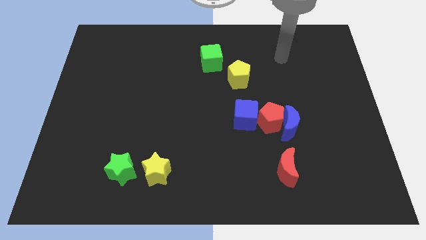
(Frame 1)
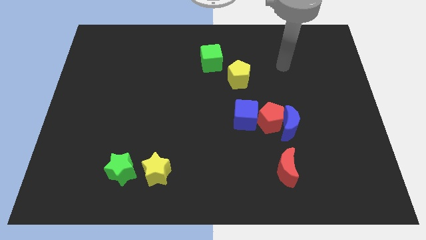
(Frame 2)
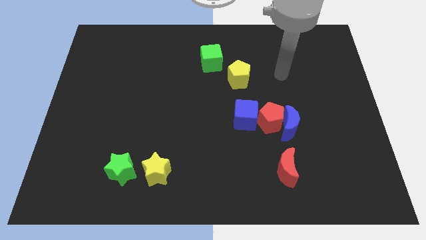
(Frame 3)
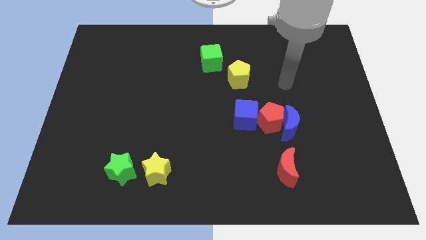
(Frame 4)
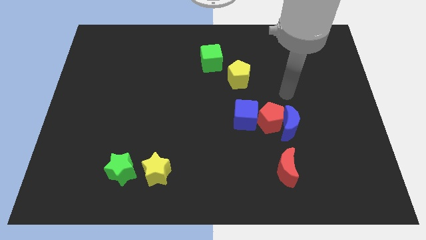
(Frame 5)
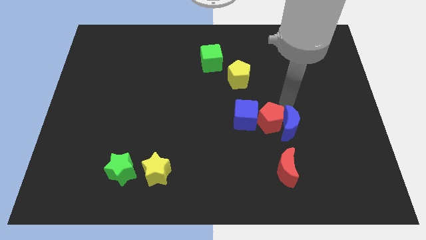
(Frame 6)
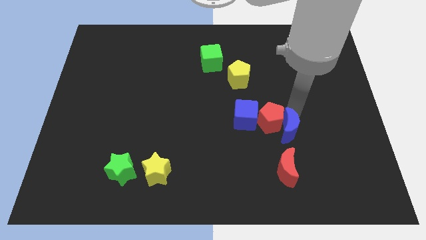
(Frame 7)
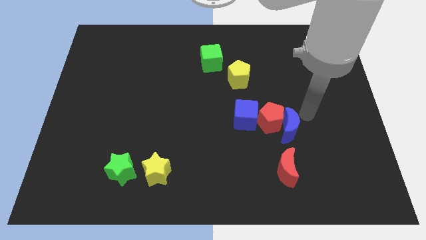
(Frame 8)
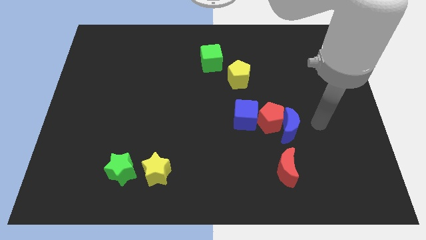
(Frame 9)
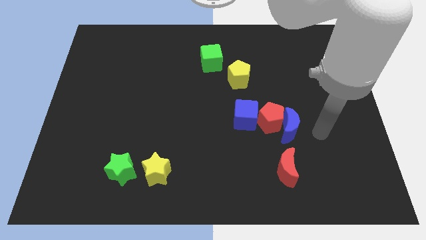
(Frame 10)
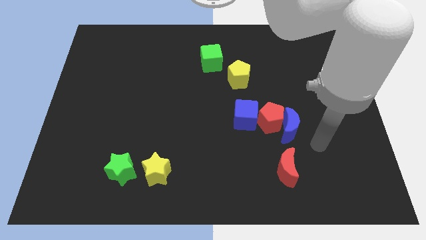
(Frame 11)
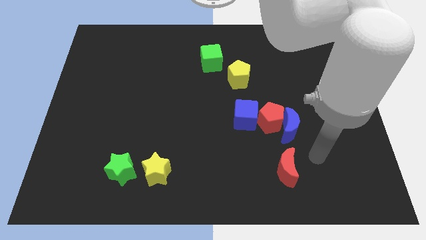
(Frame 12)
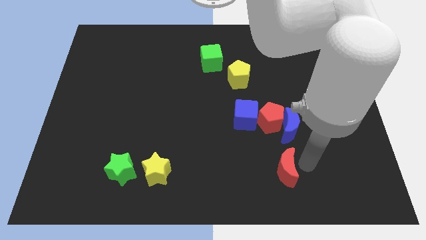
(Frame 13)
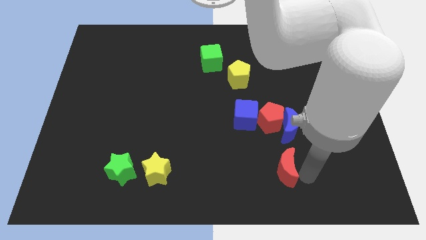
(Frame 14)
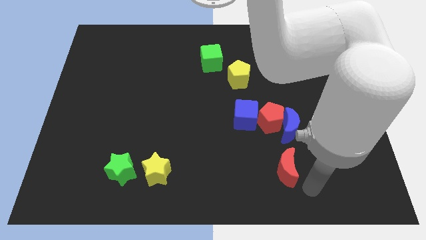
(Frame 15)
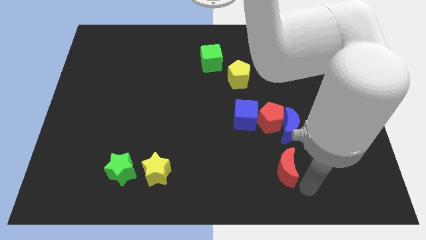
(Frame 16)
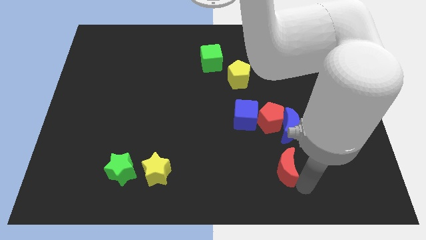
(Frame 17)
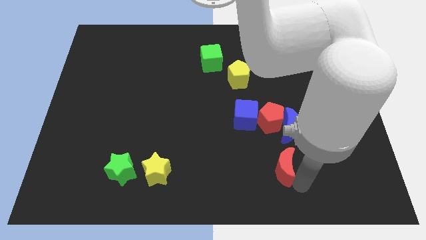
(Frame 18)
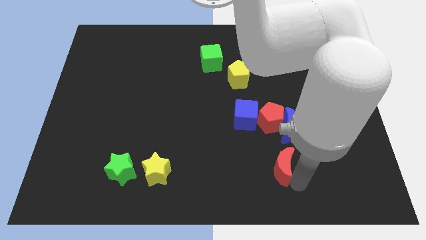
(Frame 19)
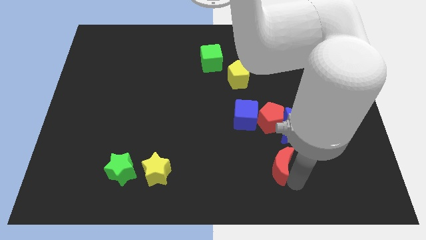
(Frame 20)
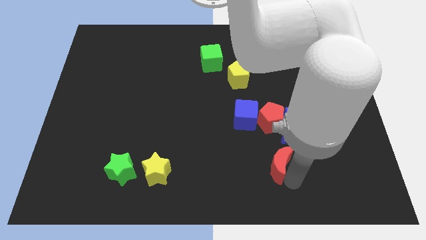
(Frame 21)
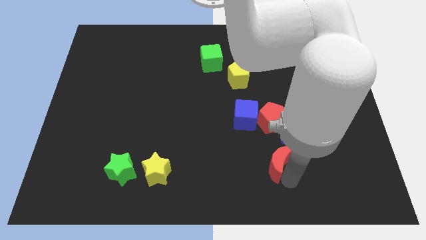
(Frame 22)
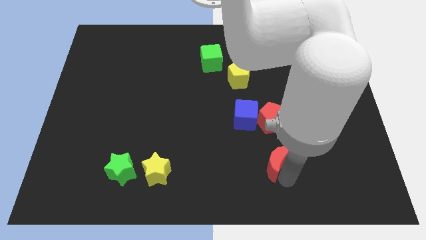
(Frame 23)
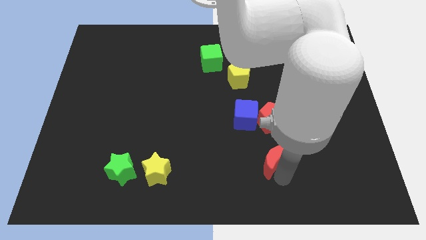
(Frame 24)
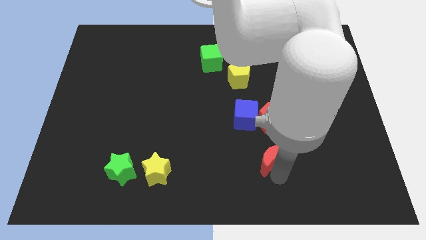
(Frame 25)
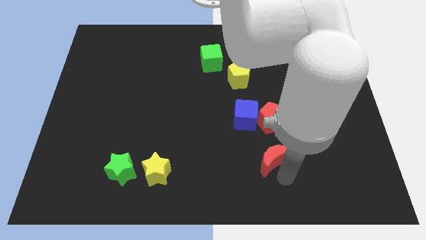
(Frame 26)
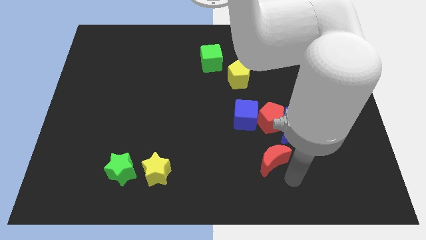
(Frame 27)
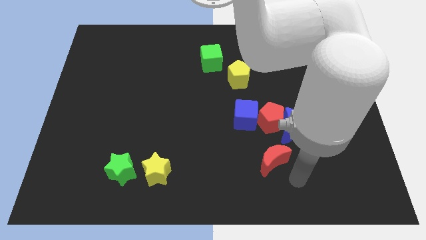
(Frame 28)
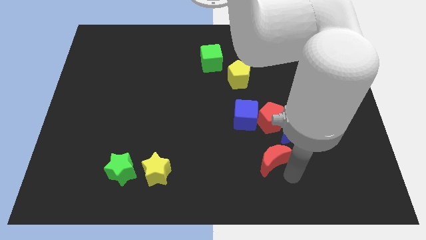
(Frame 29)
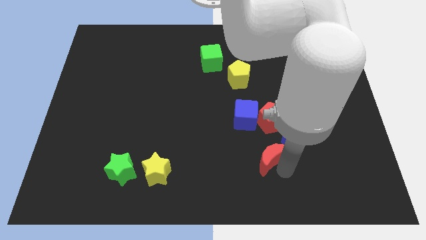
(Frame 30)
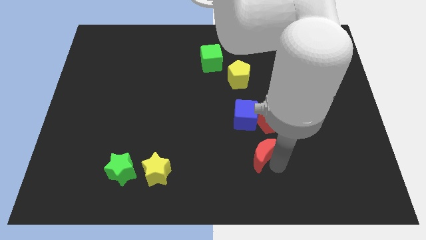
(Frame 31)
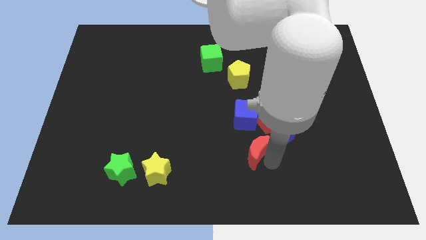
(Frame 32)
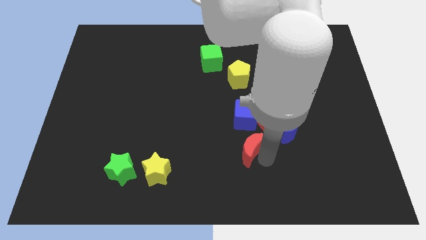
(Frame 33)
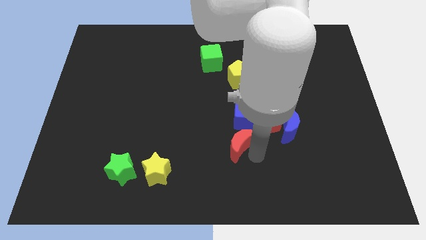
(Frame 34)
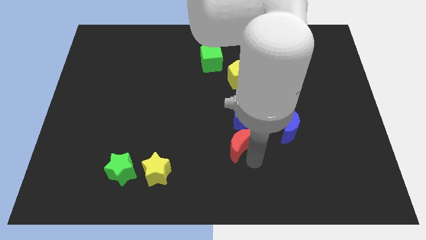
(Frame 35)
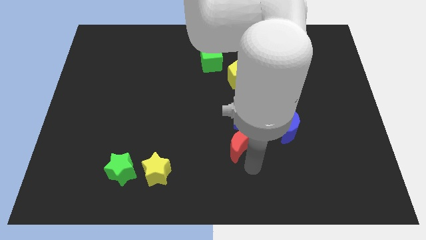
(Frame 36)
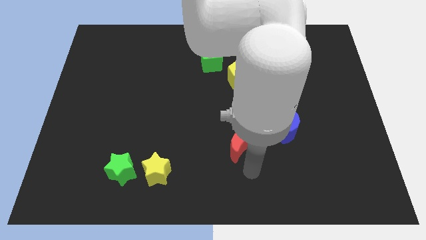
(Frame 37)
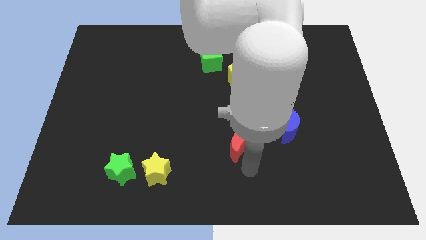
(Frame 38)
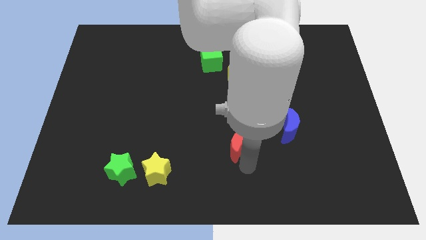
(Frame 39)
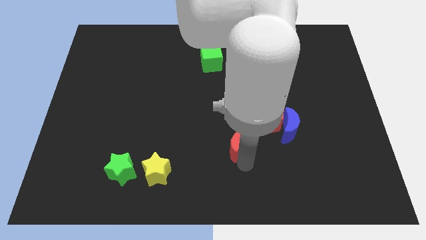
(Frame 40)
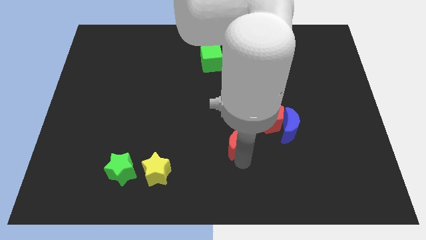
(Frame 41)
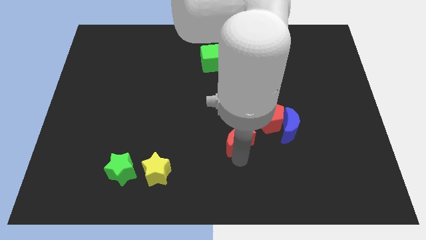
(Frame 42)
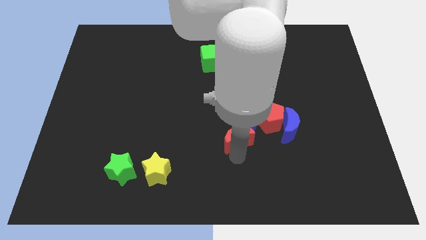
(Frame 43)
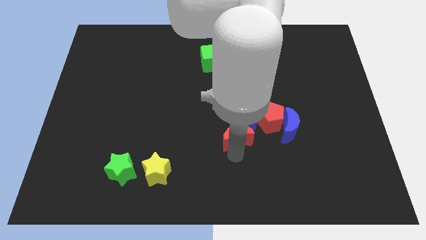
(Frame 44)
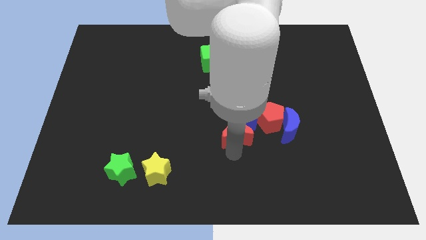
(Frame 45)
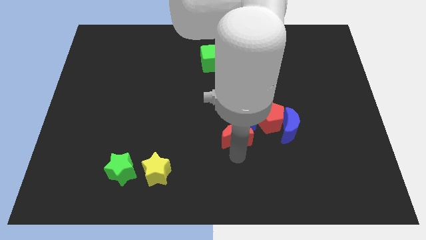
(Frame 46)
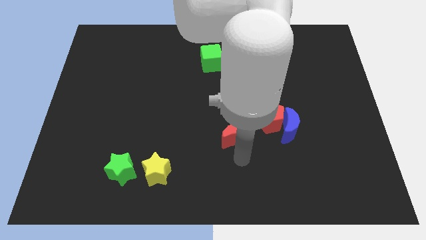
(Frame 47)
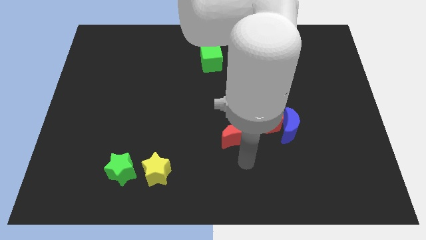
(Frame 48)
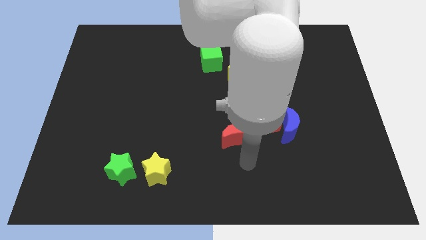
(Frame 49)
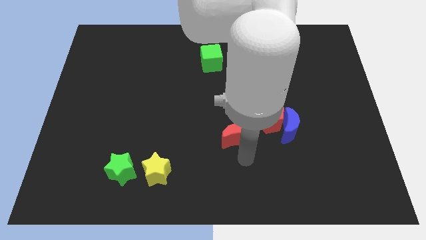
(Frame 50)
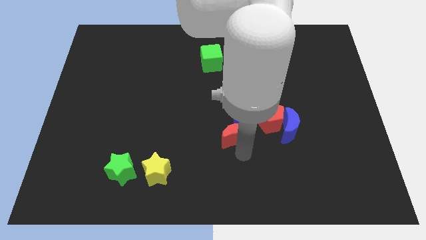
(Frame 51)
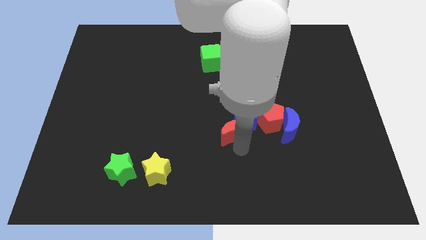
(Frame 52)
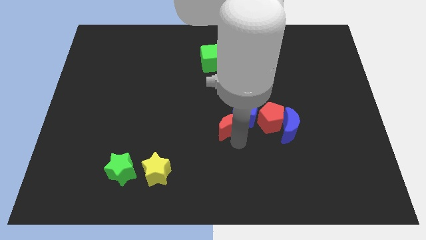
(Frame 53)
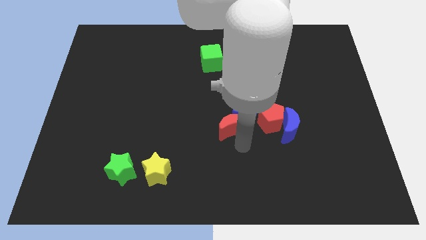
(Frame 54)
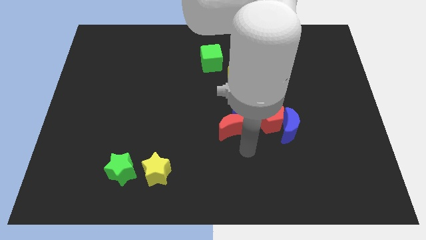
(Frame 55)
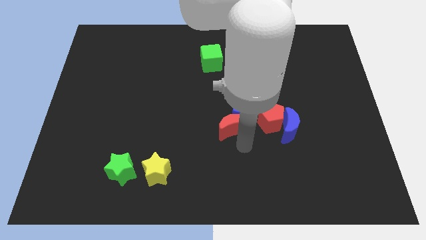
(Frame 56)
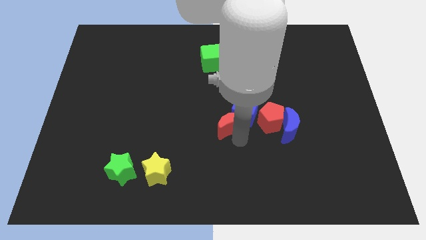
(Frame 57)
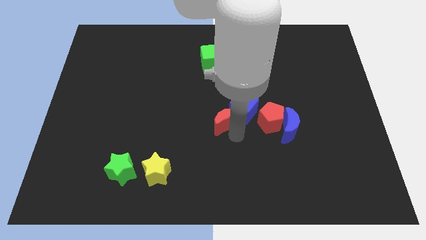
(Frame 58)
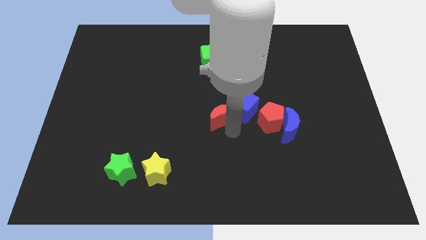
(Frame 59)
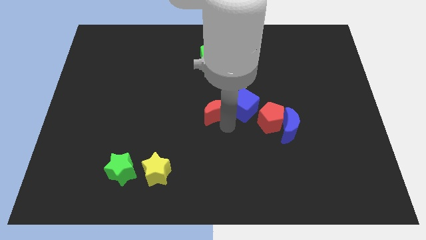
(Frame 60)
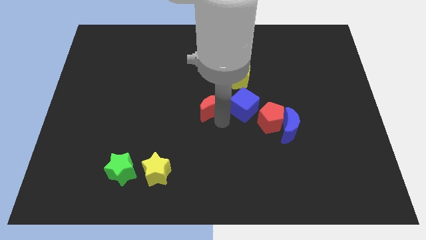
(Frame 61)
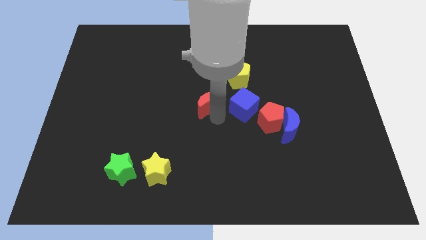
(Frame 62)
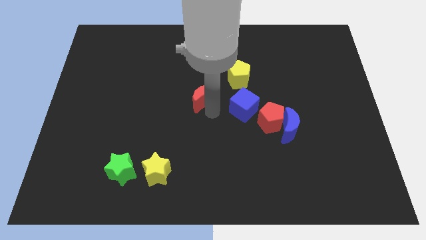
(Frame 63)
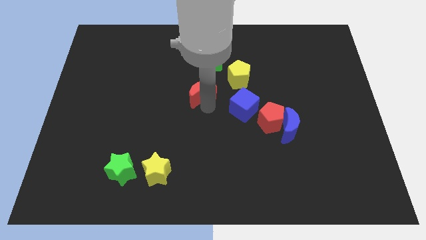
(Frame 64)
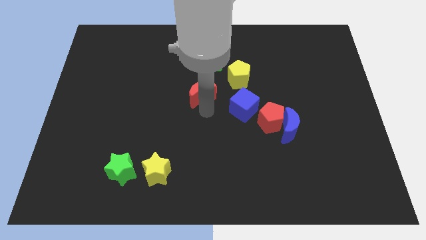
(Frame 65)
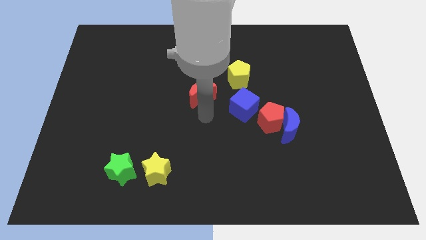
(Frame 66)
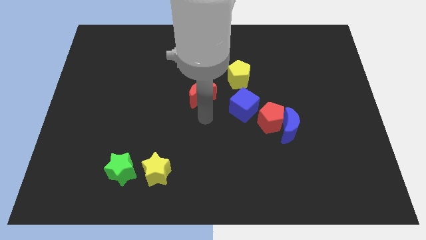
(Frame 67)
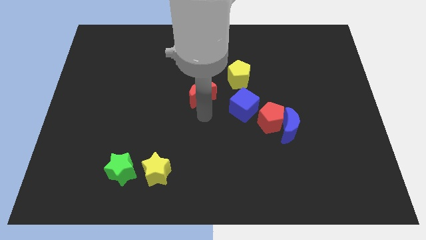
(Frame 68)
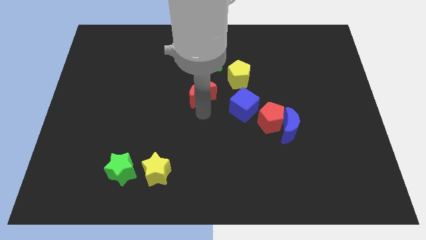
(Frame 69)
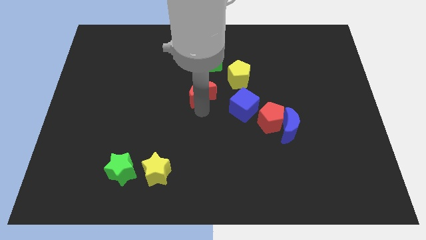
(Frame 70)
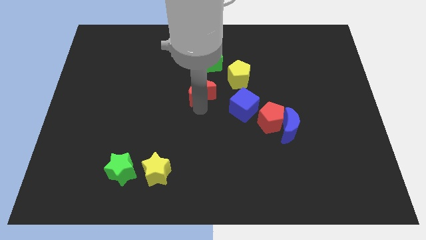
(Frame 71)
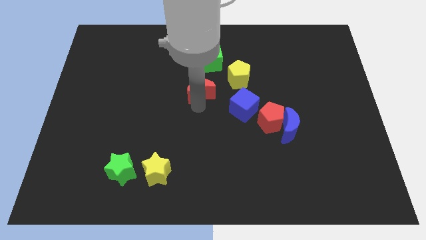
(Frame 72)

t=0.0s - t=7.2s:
put the red moon just left of the yellow pentagon
